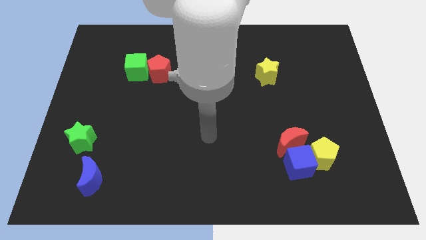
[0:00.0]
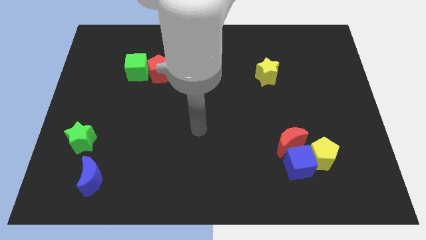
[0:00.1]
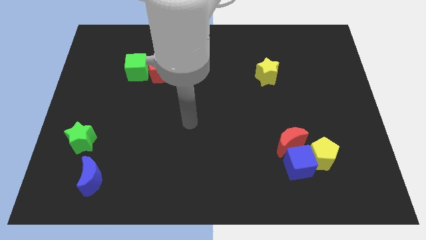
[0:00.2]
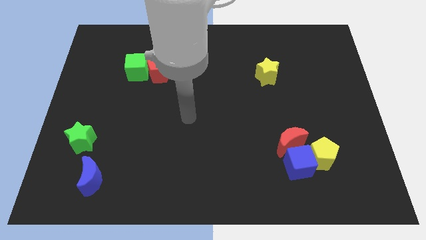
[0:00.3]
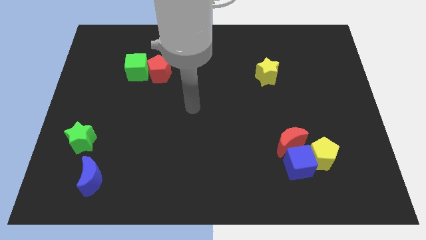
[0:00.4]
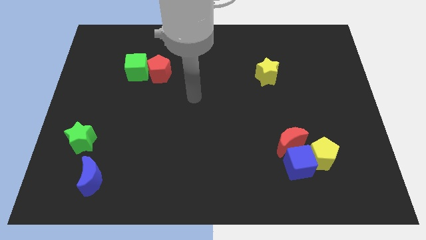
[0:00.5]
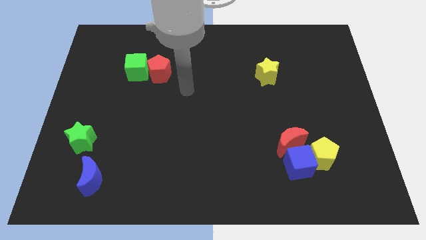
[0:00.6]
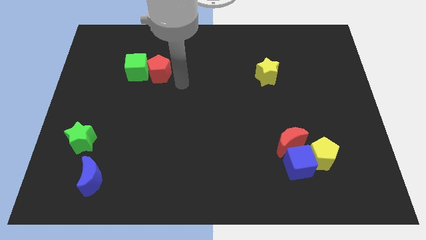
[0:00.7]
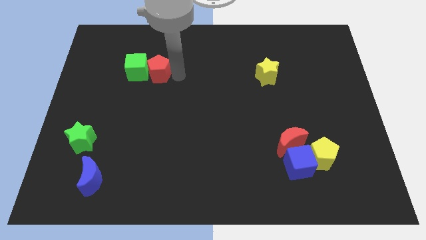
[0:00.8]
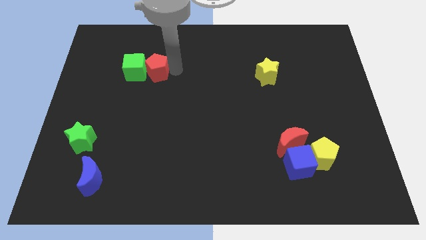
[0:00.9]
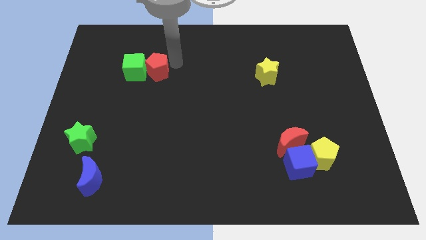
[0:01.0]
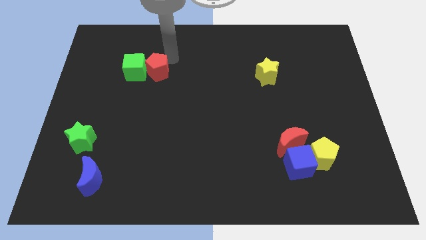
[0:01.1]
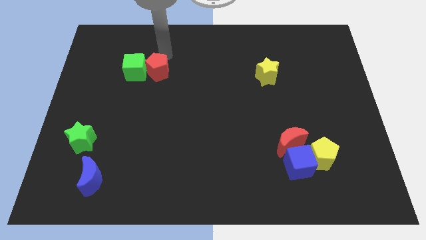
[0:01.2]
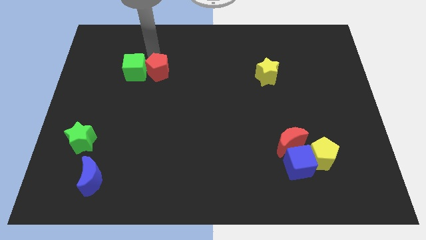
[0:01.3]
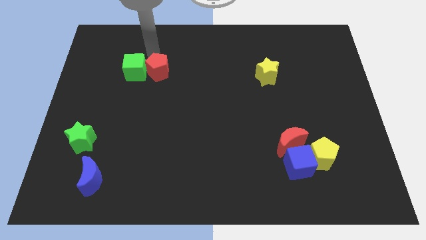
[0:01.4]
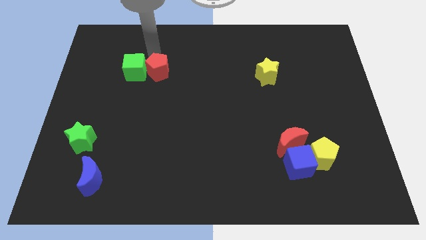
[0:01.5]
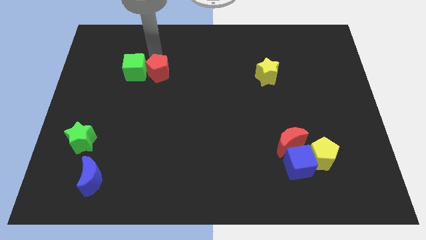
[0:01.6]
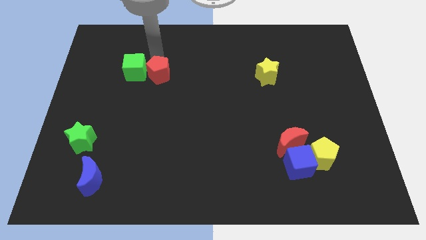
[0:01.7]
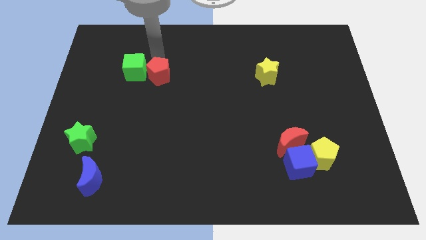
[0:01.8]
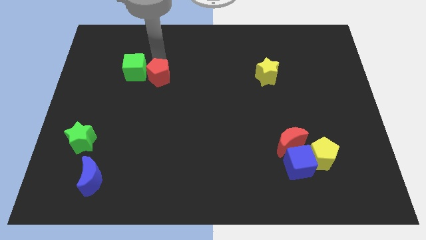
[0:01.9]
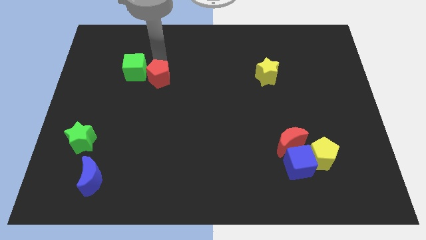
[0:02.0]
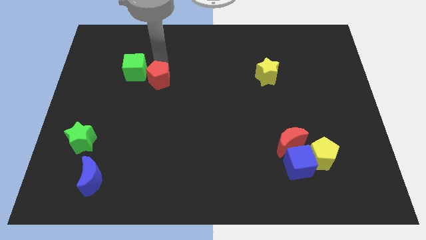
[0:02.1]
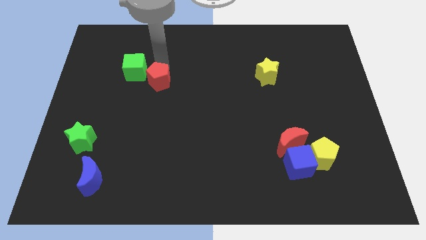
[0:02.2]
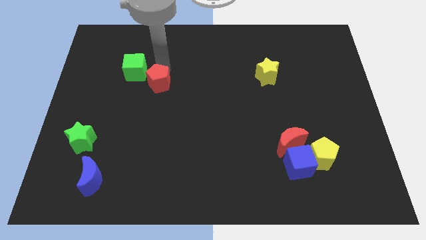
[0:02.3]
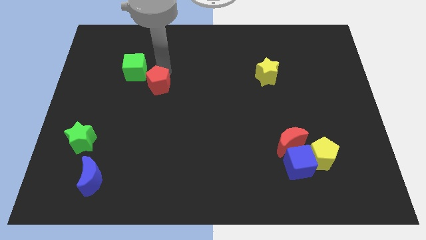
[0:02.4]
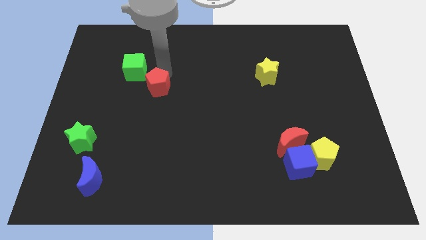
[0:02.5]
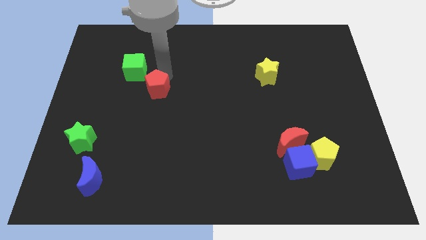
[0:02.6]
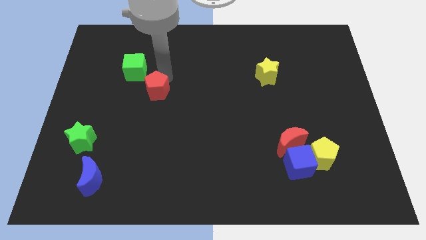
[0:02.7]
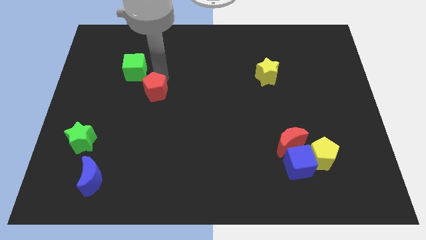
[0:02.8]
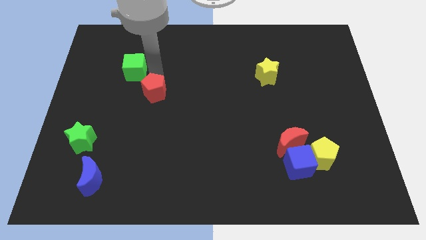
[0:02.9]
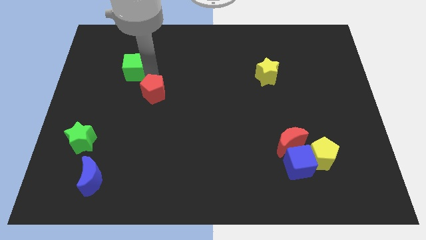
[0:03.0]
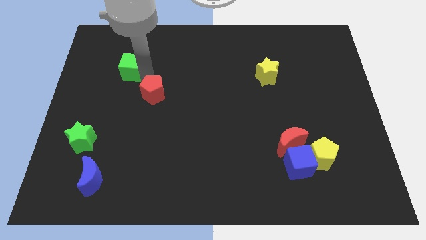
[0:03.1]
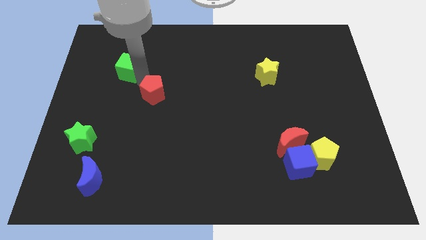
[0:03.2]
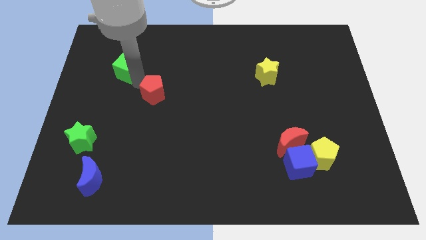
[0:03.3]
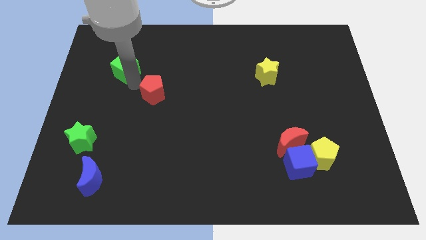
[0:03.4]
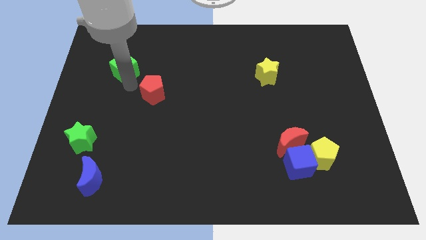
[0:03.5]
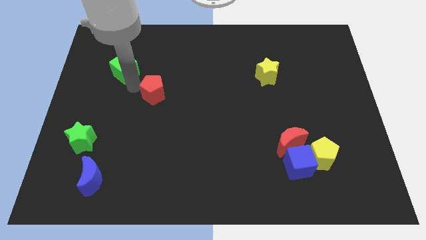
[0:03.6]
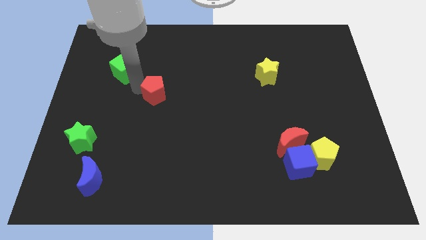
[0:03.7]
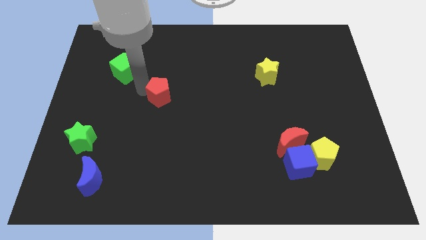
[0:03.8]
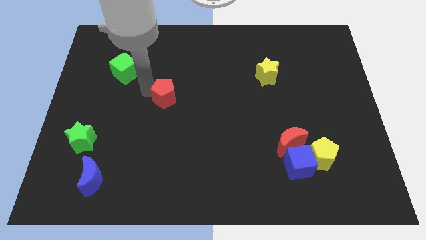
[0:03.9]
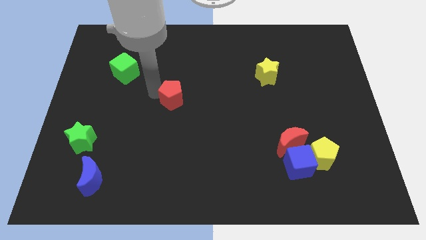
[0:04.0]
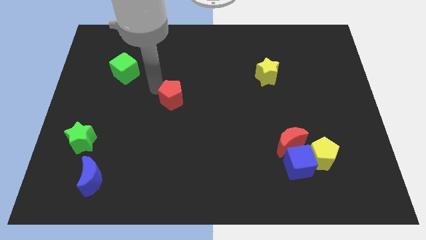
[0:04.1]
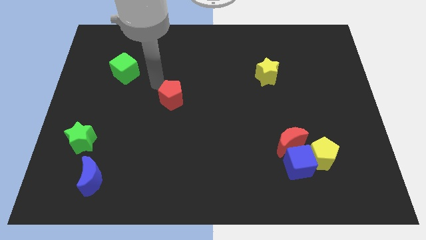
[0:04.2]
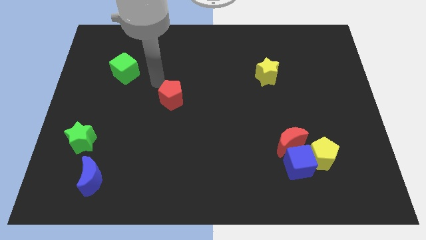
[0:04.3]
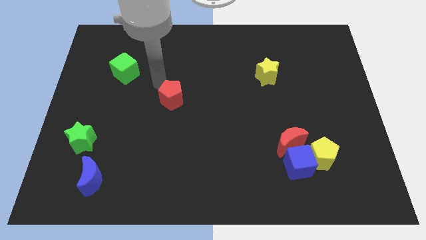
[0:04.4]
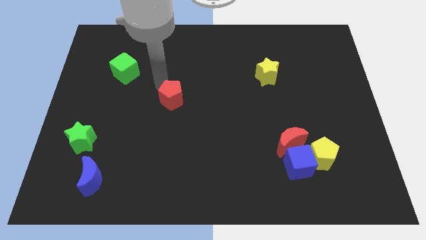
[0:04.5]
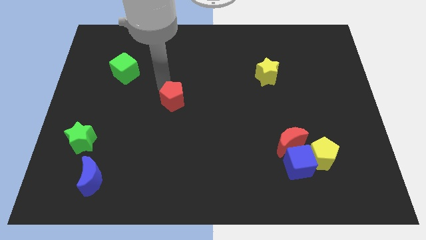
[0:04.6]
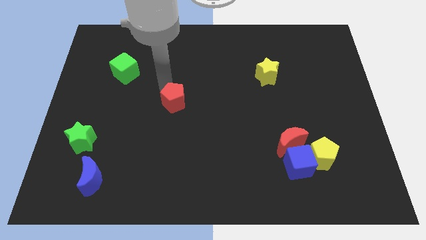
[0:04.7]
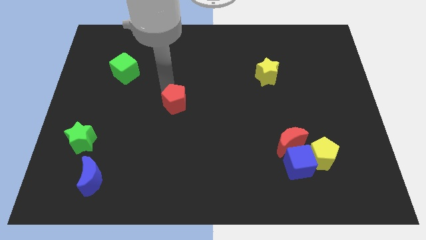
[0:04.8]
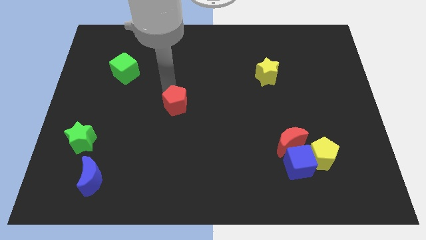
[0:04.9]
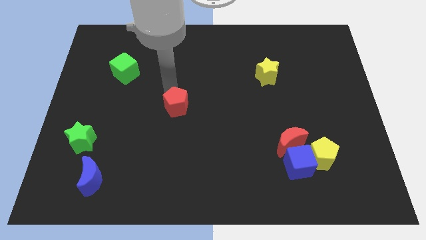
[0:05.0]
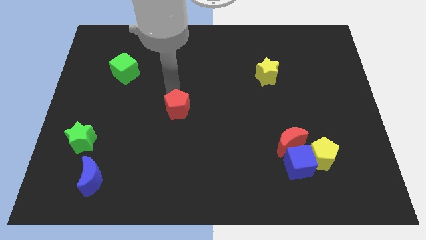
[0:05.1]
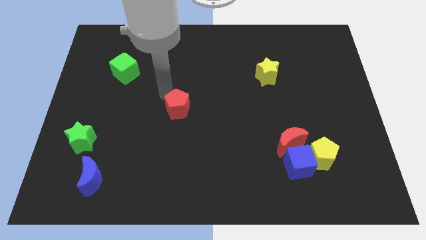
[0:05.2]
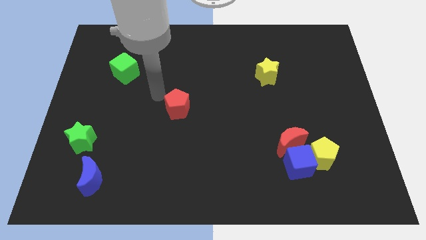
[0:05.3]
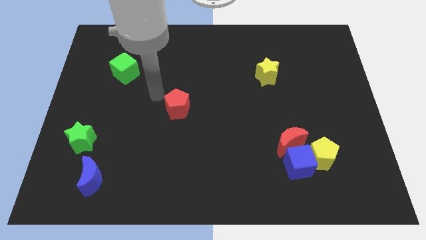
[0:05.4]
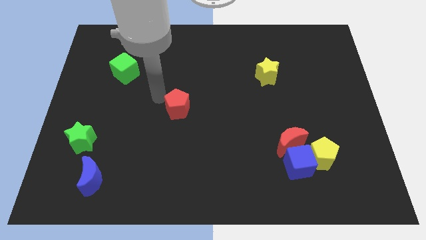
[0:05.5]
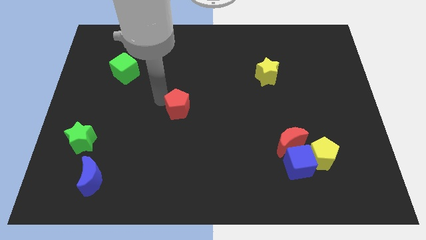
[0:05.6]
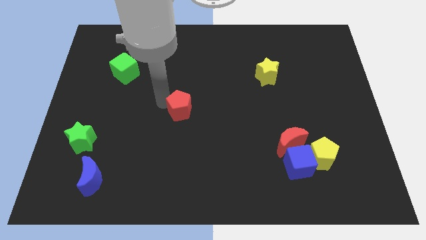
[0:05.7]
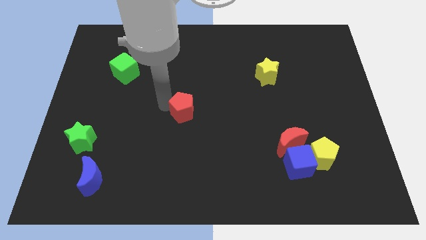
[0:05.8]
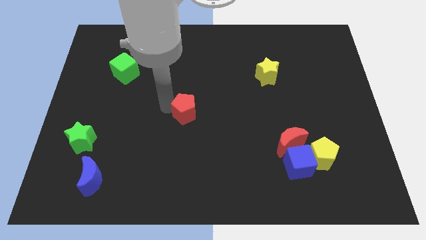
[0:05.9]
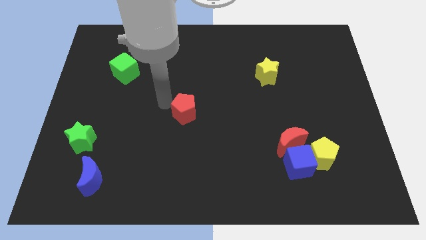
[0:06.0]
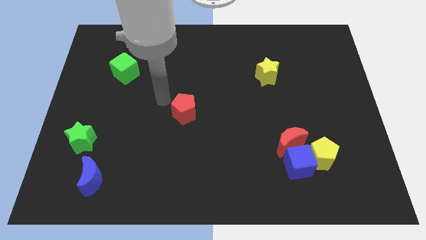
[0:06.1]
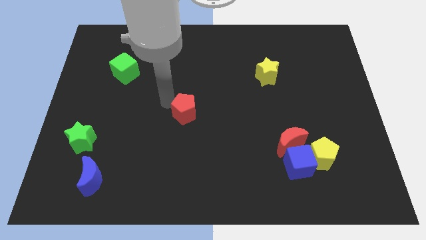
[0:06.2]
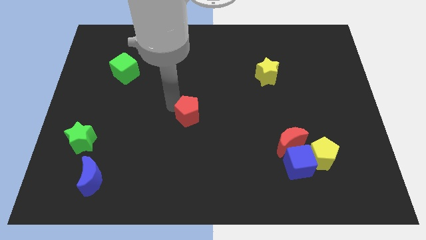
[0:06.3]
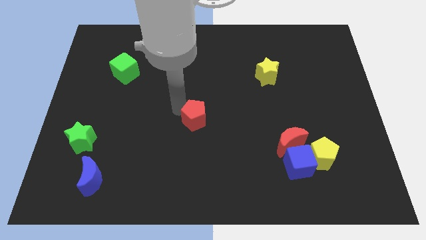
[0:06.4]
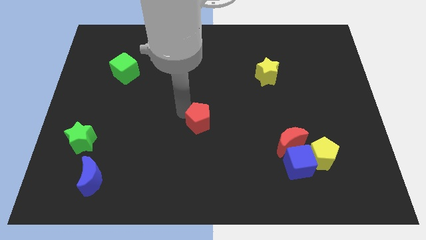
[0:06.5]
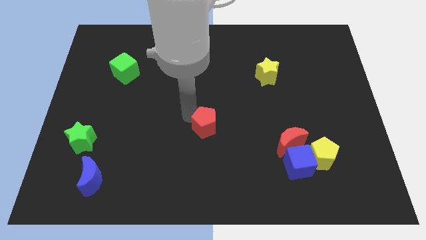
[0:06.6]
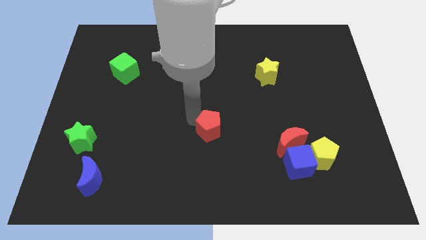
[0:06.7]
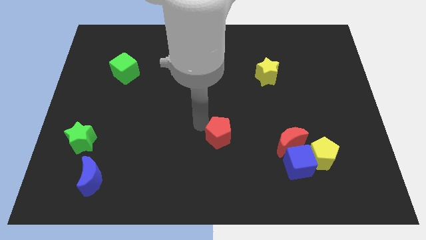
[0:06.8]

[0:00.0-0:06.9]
slide the red pentagon just left of the red moon
